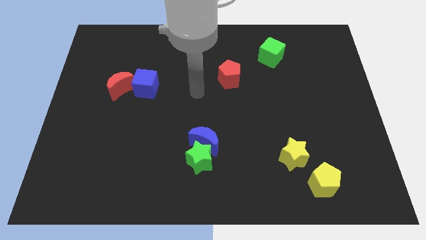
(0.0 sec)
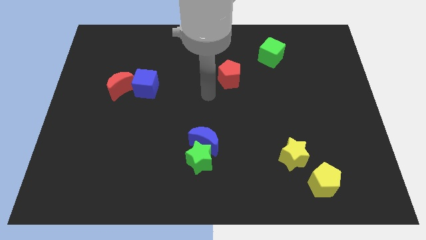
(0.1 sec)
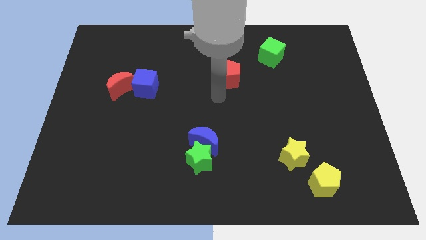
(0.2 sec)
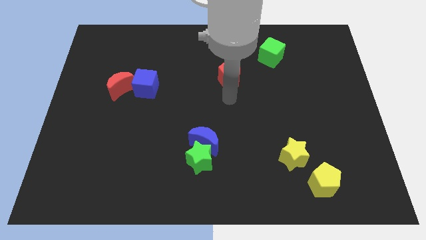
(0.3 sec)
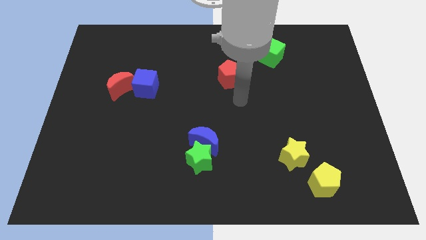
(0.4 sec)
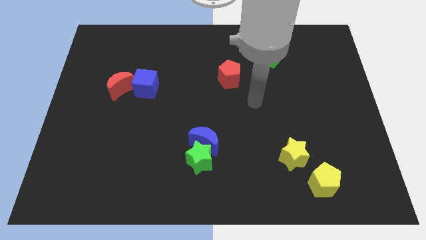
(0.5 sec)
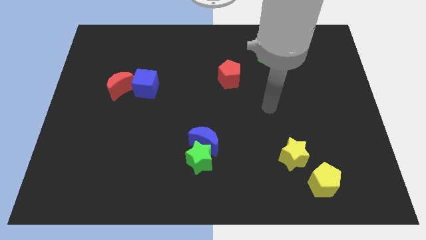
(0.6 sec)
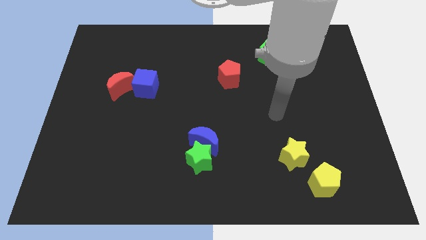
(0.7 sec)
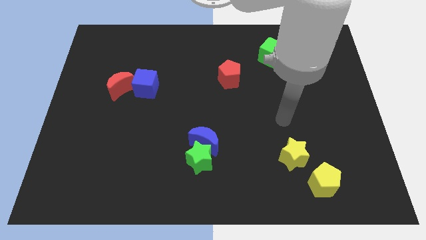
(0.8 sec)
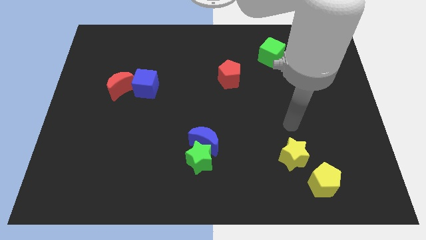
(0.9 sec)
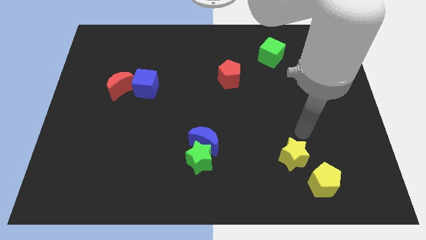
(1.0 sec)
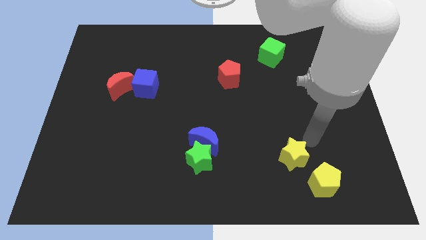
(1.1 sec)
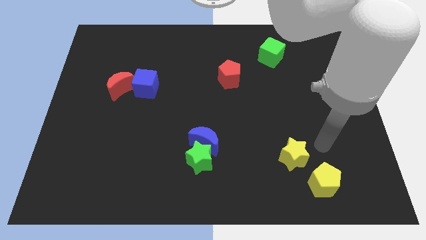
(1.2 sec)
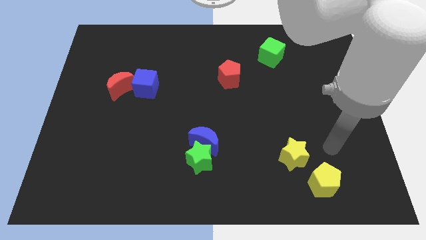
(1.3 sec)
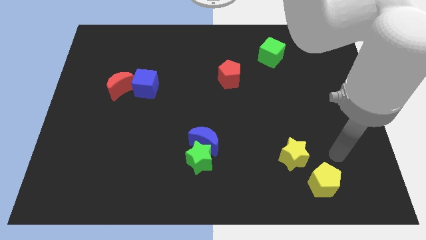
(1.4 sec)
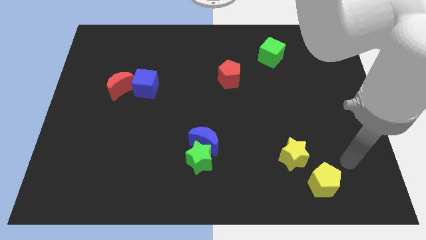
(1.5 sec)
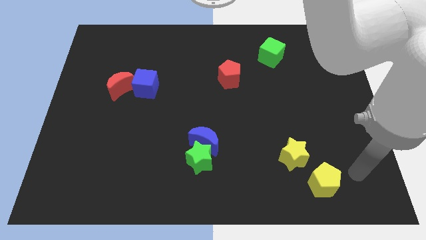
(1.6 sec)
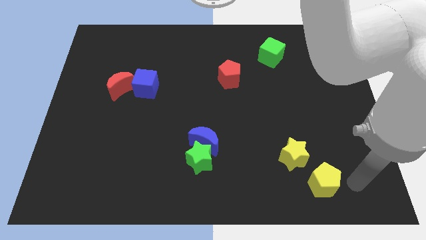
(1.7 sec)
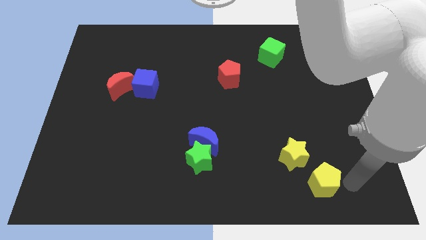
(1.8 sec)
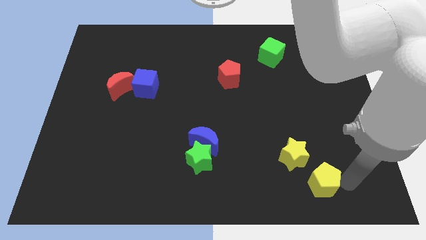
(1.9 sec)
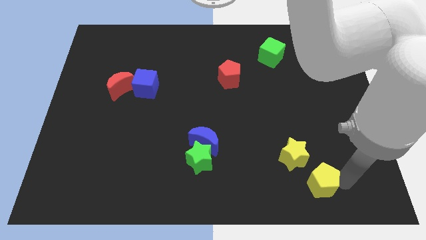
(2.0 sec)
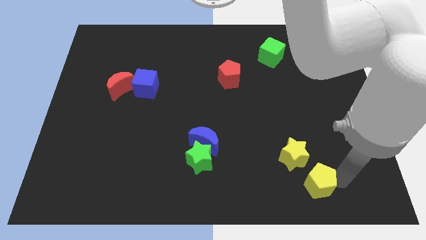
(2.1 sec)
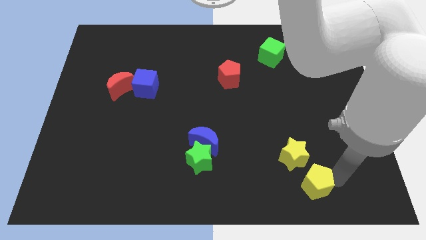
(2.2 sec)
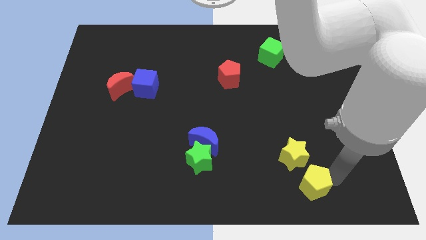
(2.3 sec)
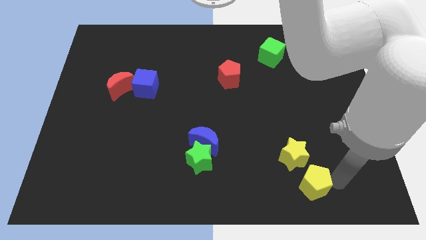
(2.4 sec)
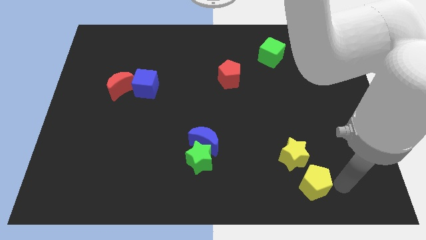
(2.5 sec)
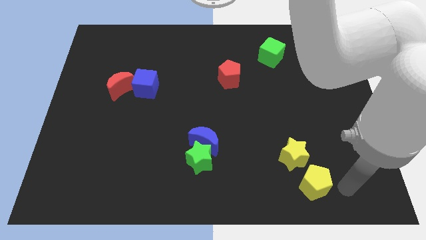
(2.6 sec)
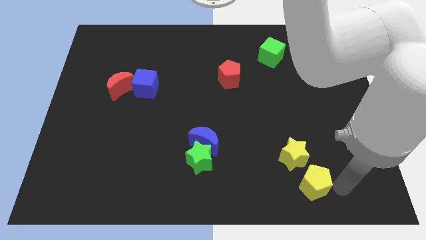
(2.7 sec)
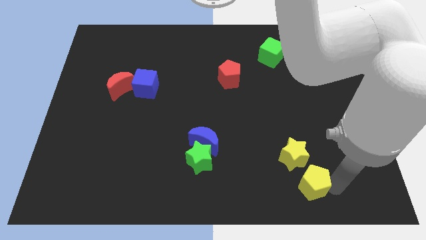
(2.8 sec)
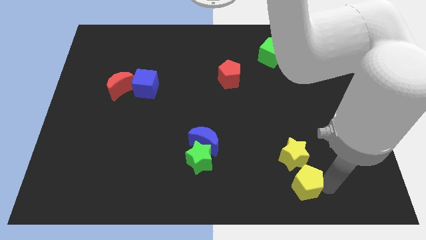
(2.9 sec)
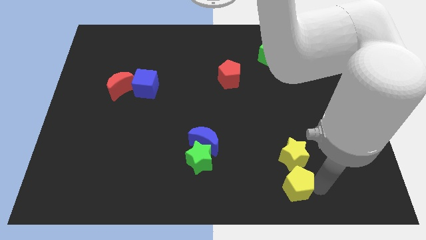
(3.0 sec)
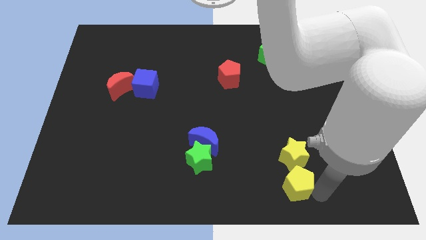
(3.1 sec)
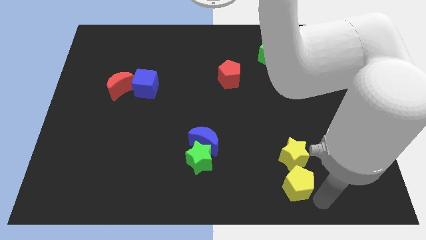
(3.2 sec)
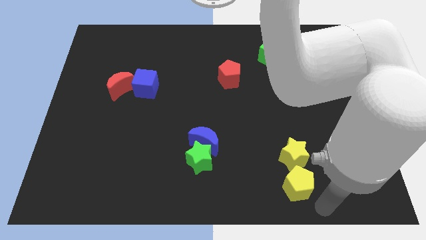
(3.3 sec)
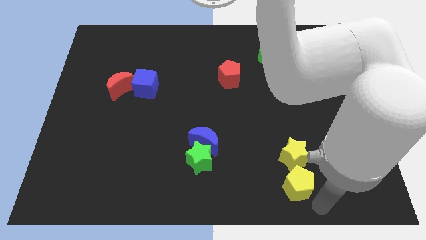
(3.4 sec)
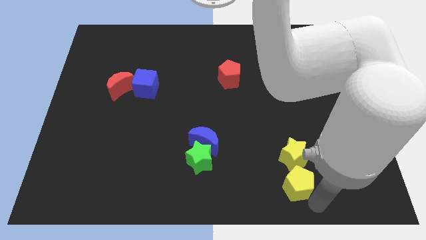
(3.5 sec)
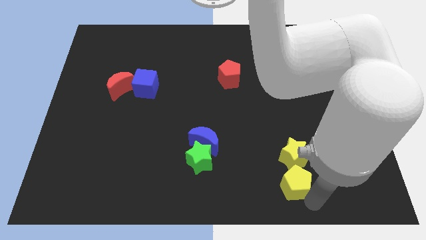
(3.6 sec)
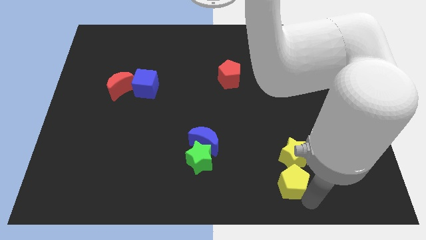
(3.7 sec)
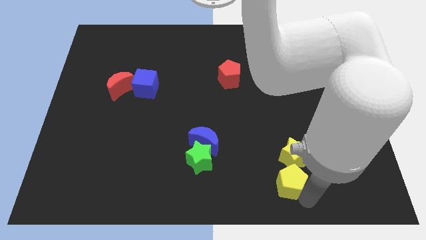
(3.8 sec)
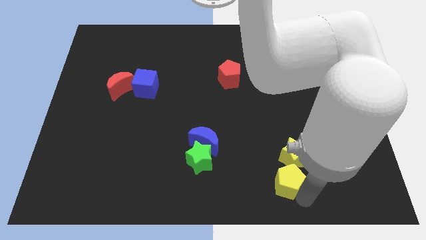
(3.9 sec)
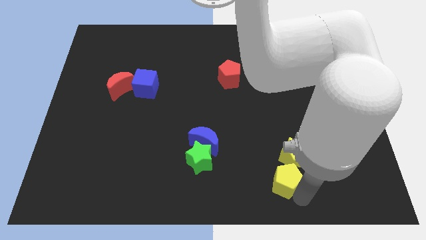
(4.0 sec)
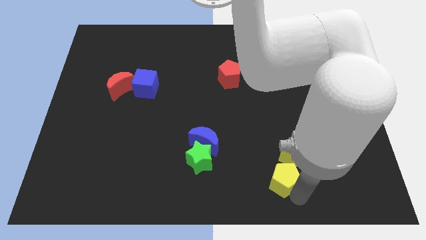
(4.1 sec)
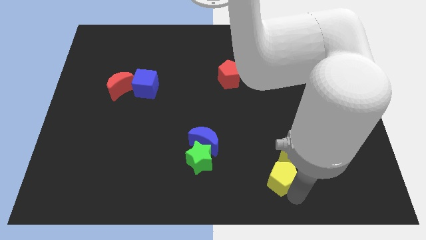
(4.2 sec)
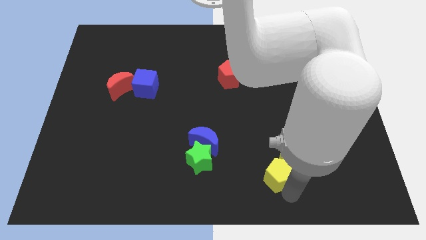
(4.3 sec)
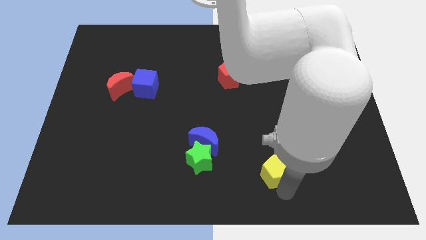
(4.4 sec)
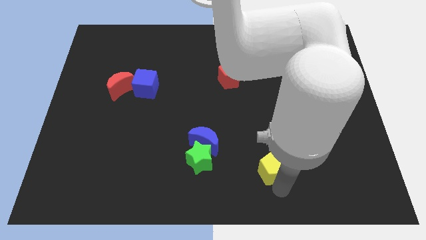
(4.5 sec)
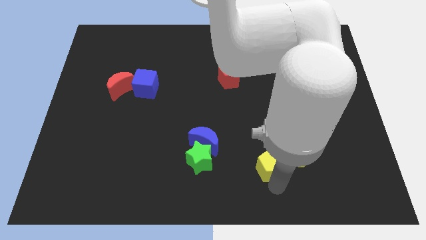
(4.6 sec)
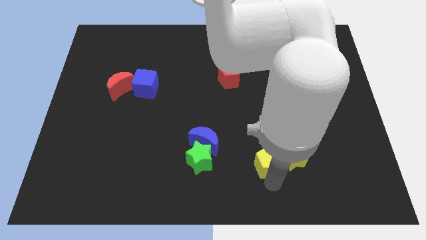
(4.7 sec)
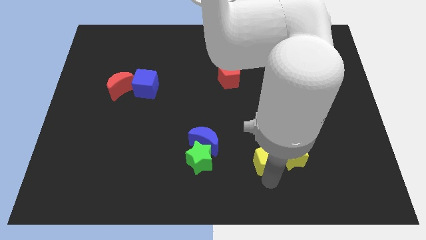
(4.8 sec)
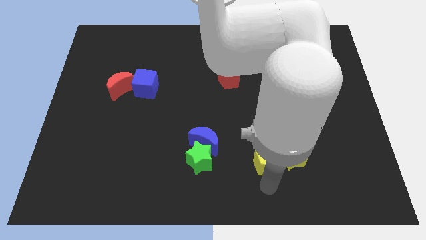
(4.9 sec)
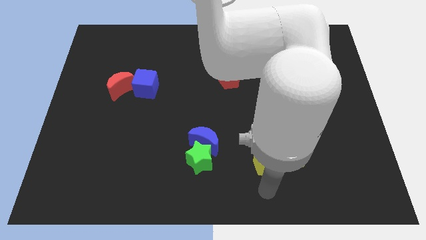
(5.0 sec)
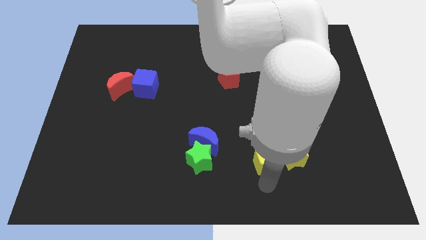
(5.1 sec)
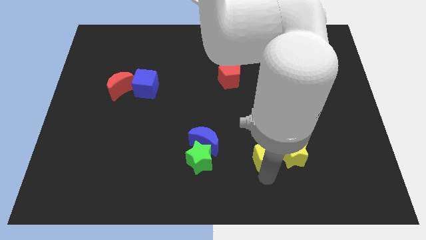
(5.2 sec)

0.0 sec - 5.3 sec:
move the yellow pentagon diagonally up and to the left of the yellow star

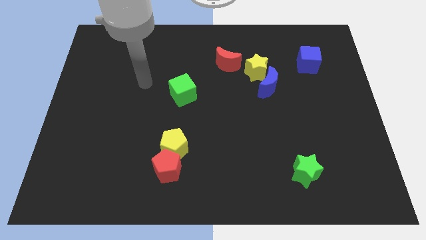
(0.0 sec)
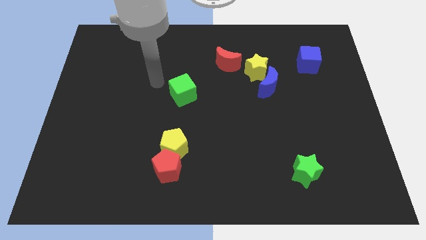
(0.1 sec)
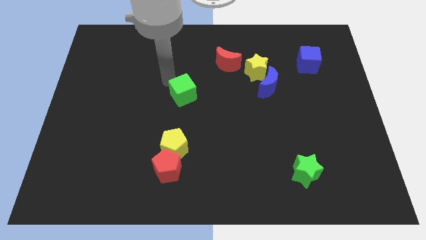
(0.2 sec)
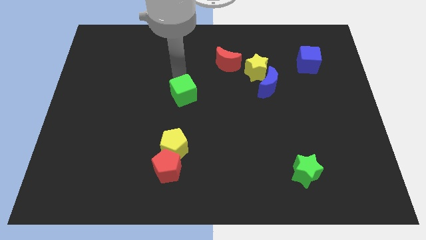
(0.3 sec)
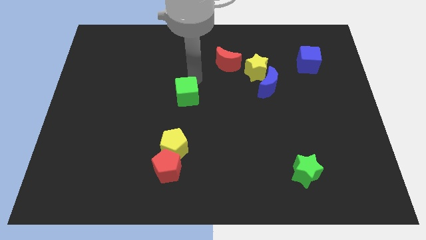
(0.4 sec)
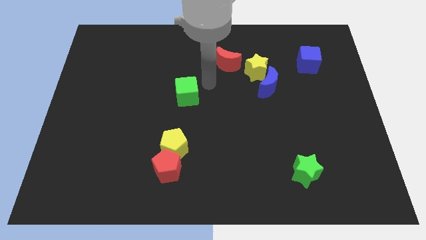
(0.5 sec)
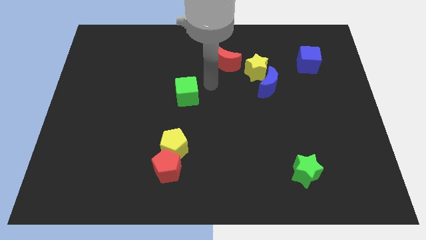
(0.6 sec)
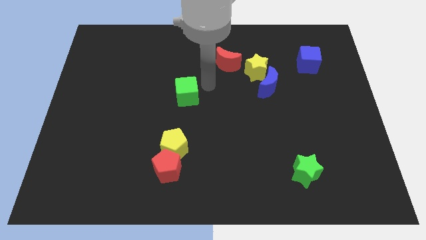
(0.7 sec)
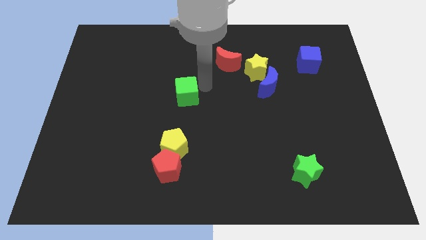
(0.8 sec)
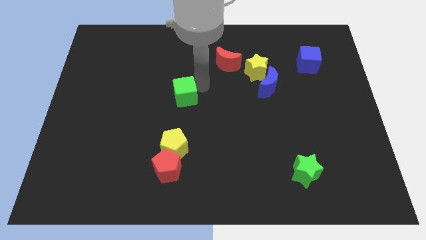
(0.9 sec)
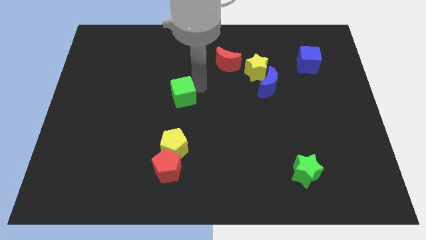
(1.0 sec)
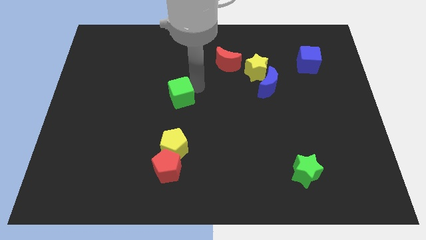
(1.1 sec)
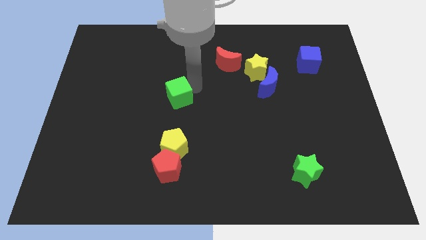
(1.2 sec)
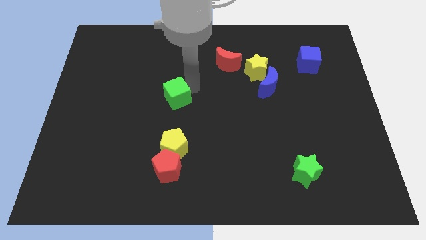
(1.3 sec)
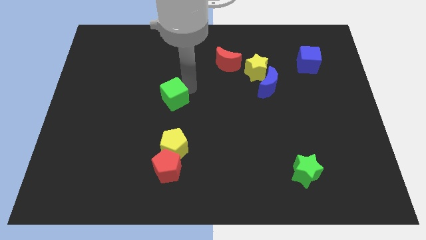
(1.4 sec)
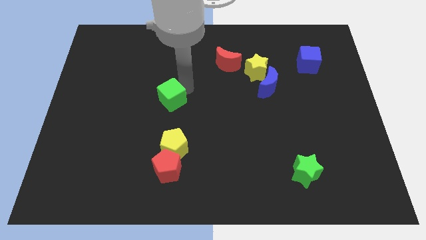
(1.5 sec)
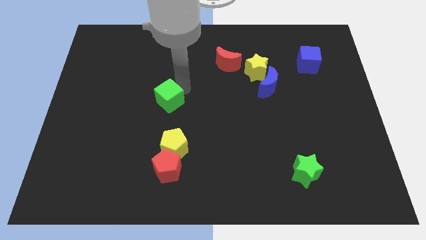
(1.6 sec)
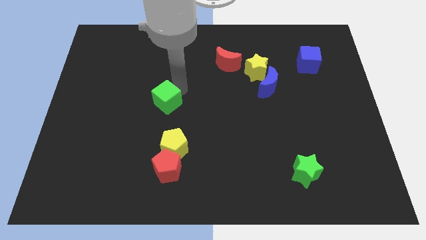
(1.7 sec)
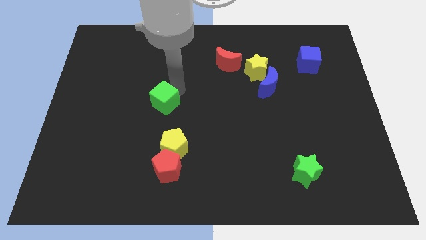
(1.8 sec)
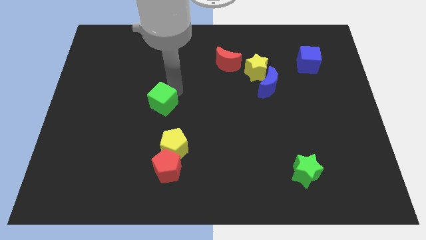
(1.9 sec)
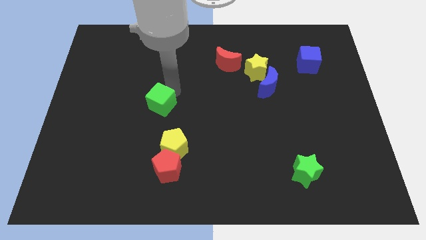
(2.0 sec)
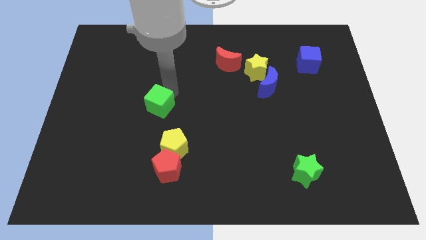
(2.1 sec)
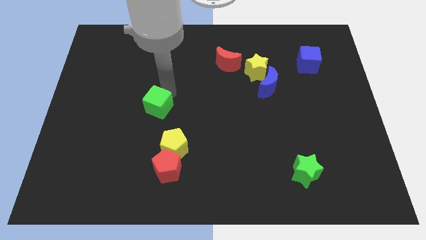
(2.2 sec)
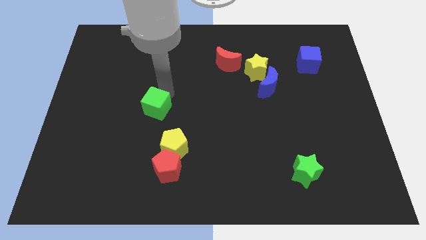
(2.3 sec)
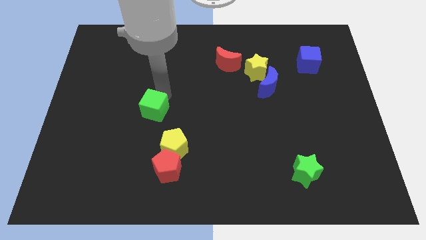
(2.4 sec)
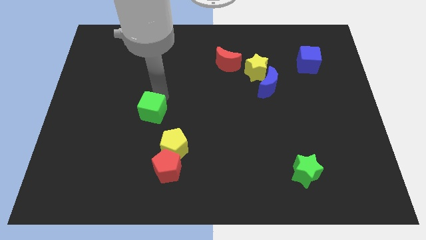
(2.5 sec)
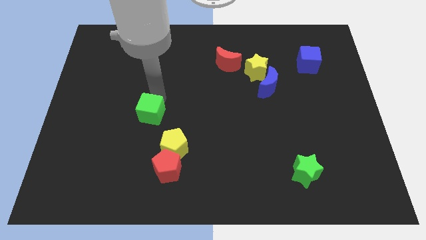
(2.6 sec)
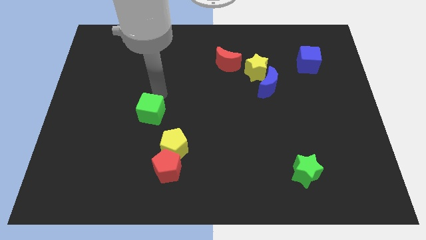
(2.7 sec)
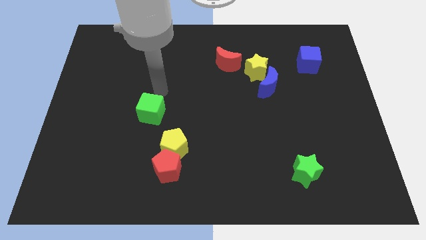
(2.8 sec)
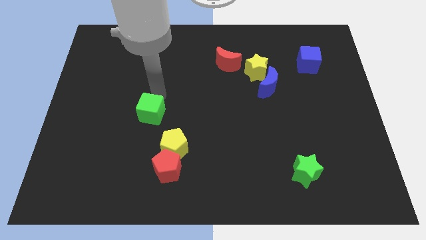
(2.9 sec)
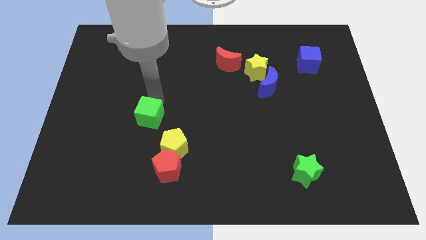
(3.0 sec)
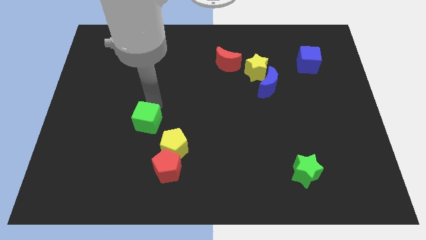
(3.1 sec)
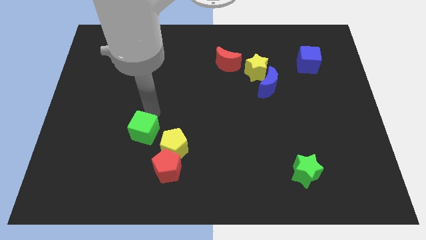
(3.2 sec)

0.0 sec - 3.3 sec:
put the green cube left of the yellow pentagon
